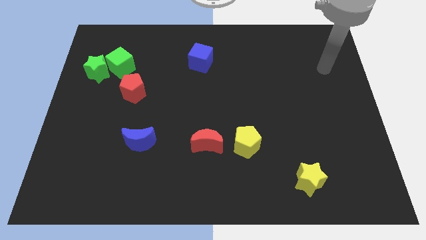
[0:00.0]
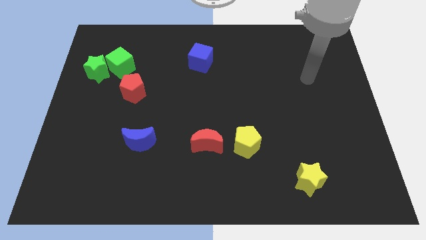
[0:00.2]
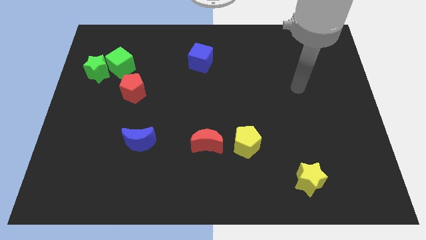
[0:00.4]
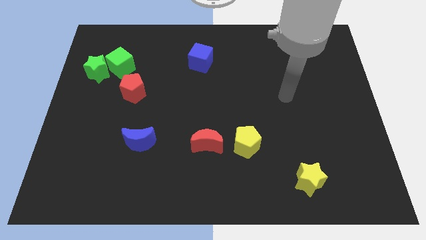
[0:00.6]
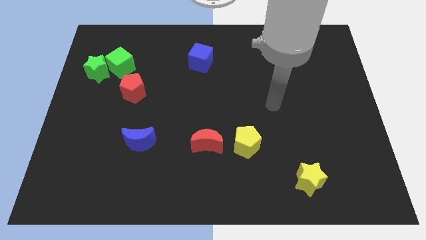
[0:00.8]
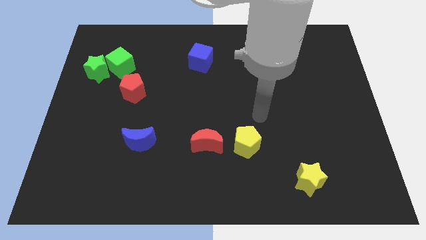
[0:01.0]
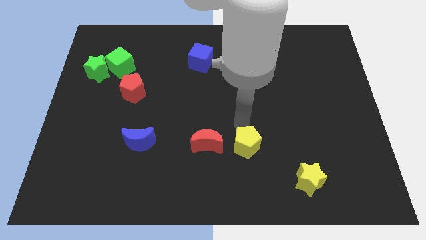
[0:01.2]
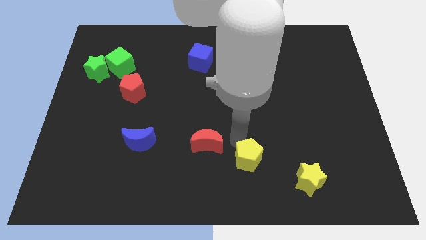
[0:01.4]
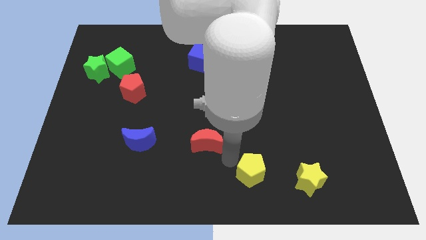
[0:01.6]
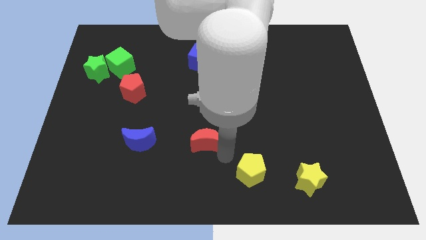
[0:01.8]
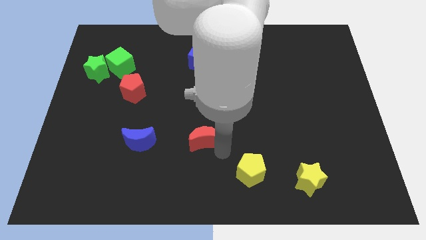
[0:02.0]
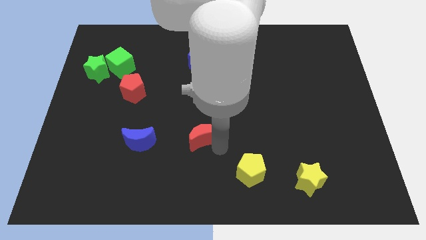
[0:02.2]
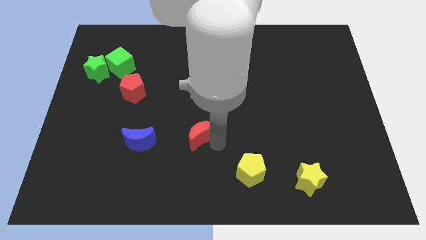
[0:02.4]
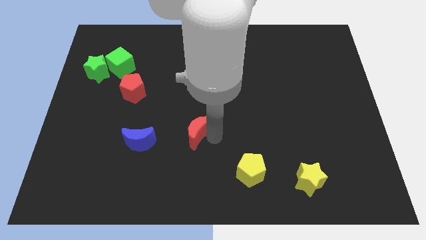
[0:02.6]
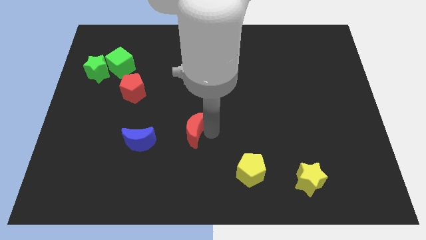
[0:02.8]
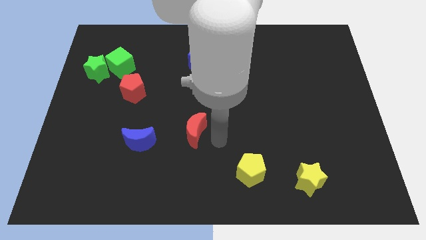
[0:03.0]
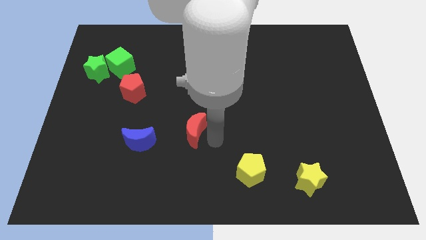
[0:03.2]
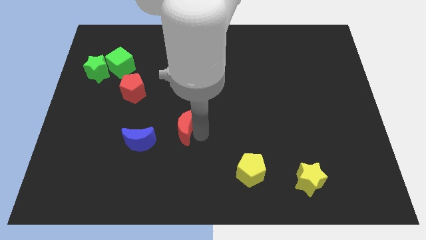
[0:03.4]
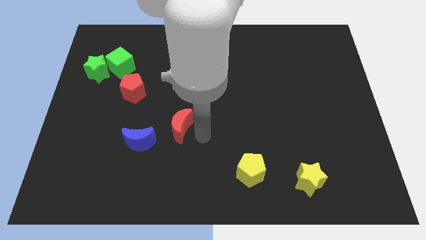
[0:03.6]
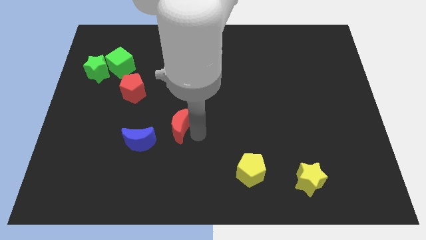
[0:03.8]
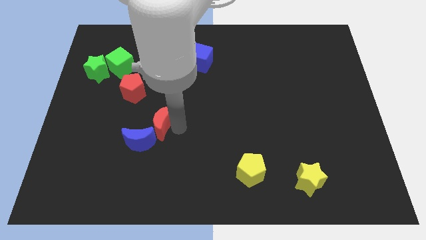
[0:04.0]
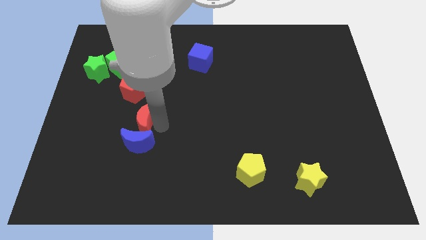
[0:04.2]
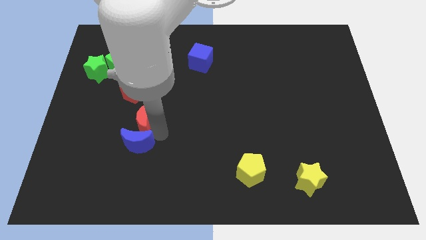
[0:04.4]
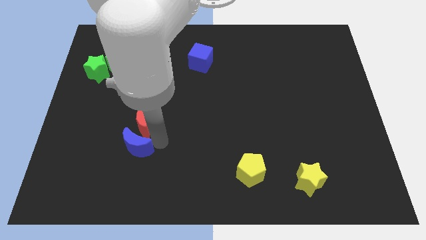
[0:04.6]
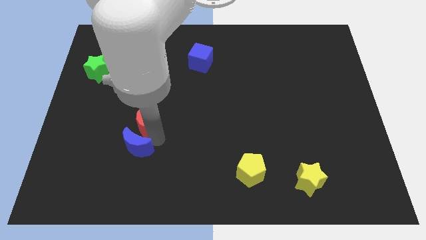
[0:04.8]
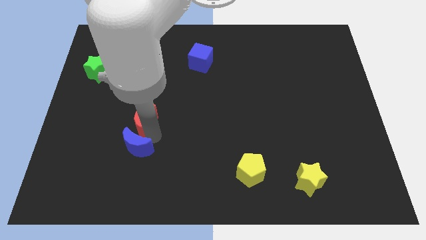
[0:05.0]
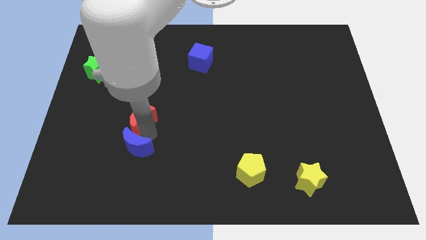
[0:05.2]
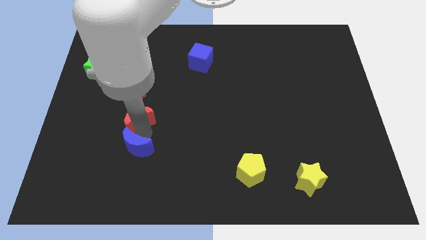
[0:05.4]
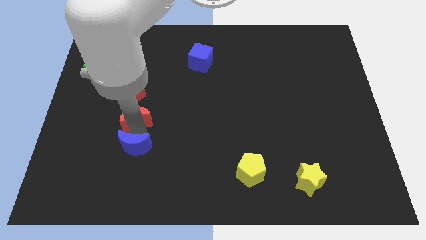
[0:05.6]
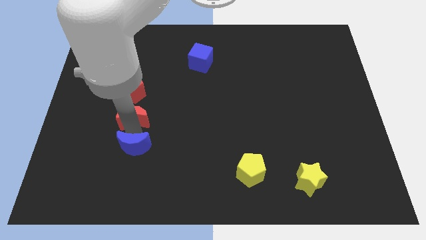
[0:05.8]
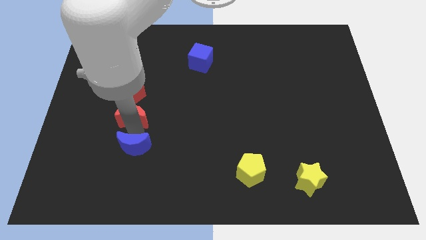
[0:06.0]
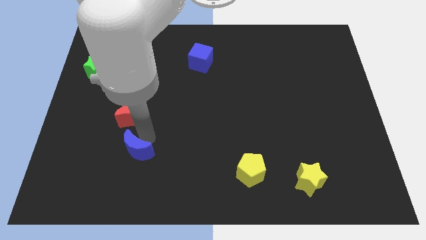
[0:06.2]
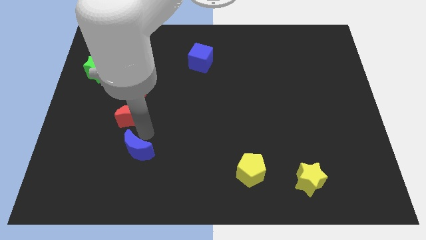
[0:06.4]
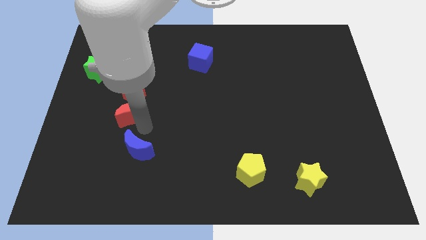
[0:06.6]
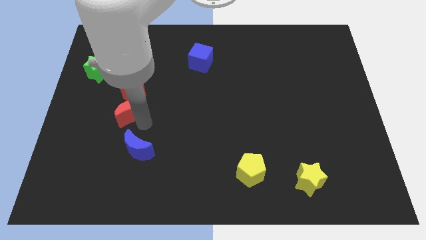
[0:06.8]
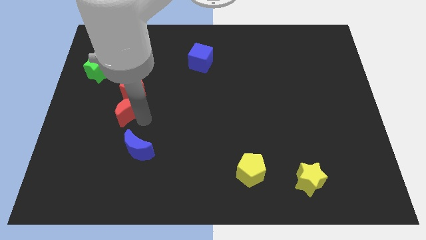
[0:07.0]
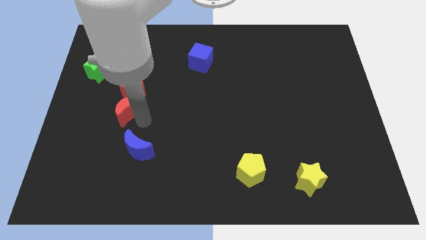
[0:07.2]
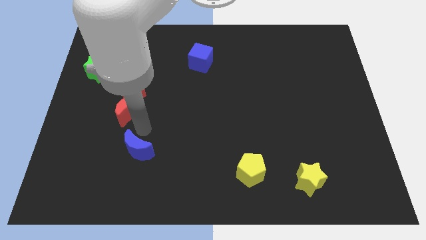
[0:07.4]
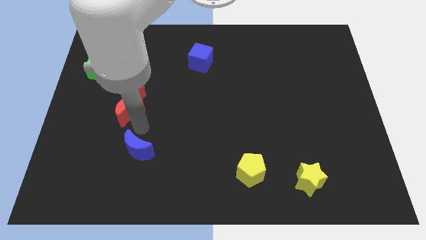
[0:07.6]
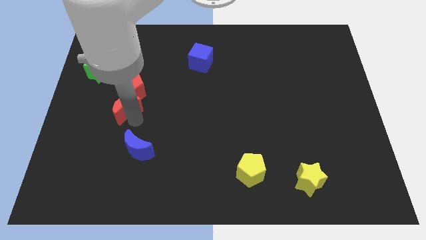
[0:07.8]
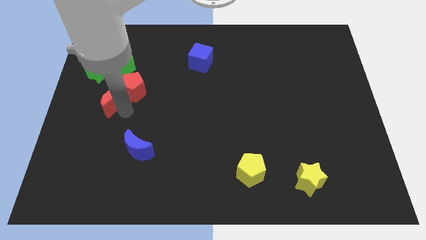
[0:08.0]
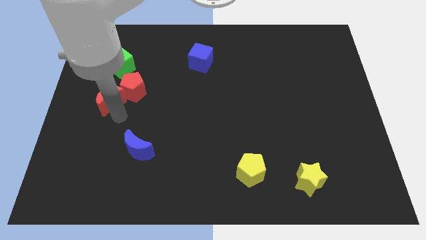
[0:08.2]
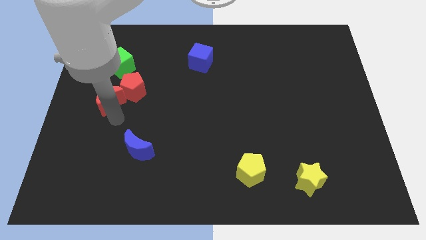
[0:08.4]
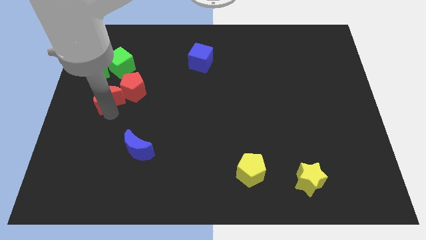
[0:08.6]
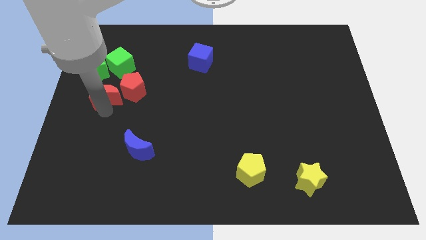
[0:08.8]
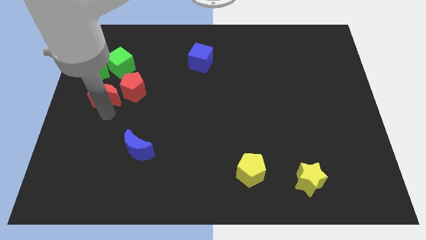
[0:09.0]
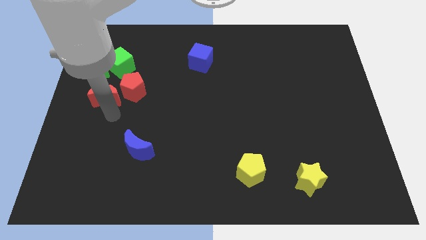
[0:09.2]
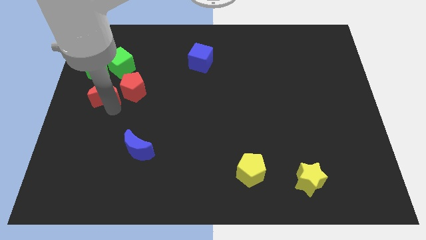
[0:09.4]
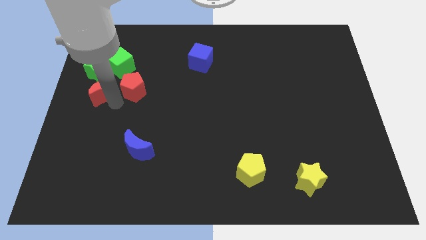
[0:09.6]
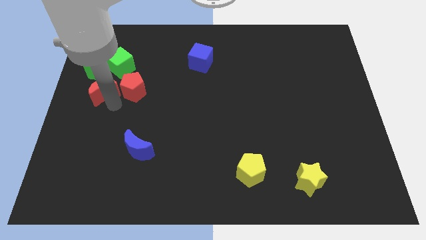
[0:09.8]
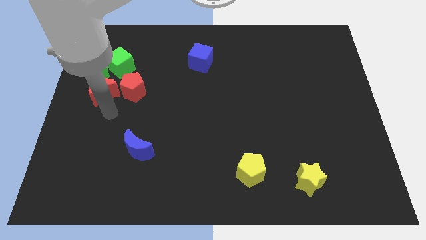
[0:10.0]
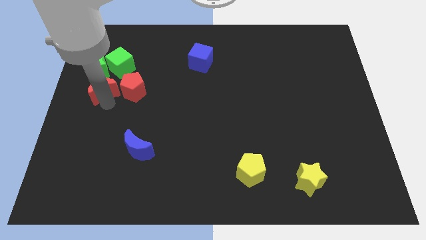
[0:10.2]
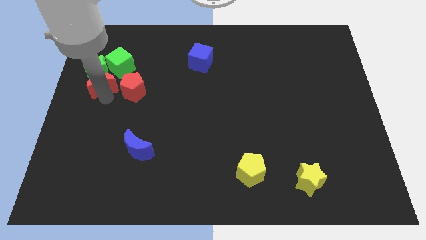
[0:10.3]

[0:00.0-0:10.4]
slide the red moon to the green star

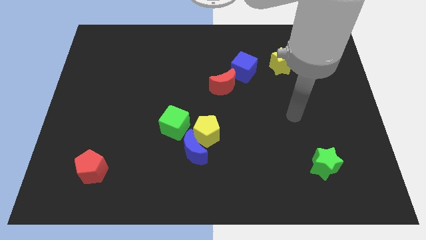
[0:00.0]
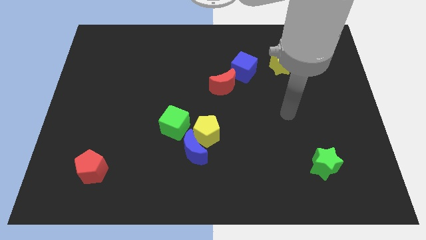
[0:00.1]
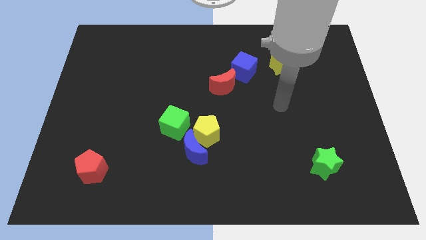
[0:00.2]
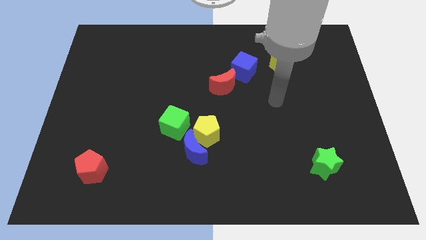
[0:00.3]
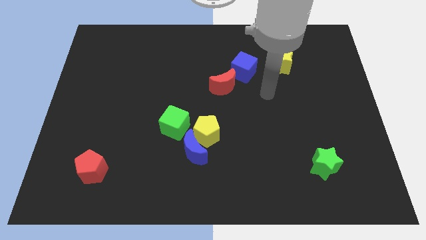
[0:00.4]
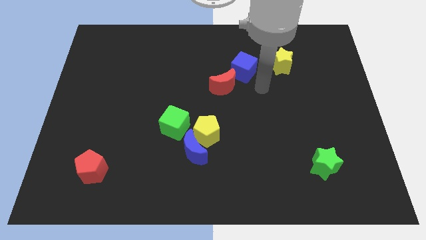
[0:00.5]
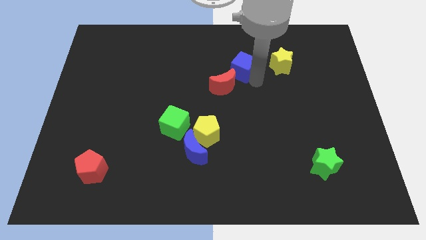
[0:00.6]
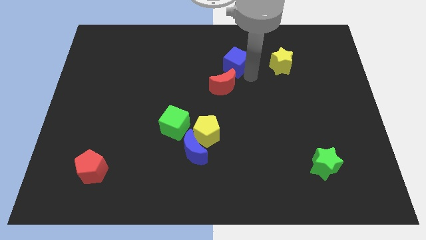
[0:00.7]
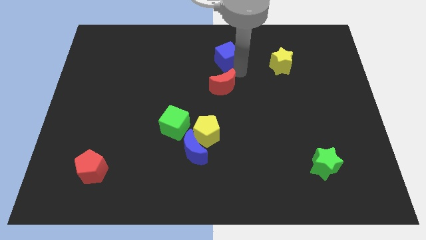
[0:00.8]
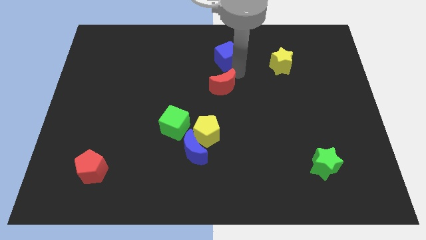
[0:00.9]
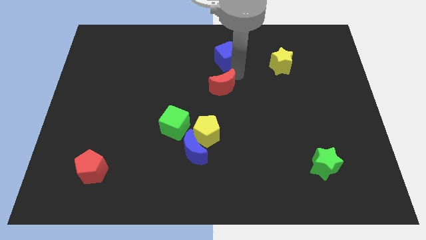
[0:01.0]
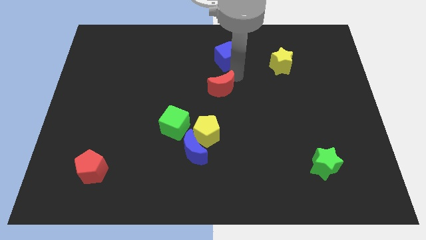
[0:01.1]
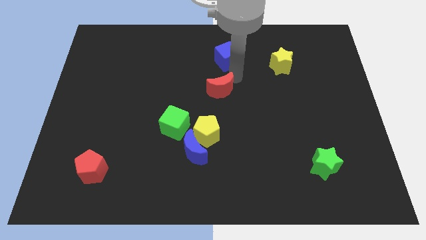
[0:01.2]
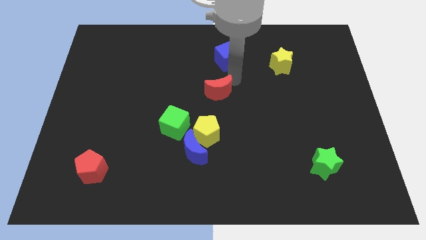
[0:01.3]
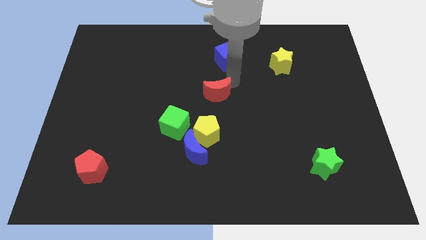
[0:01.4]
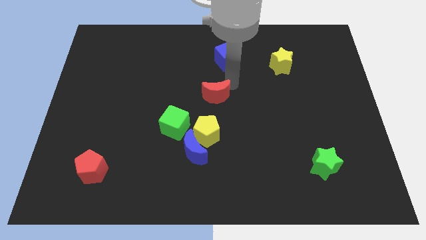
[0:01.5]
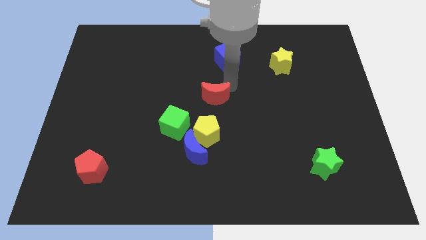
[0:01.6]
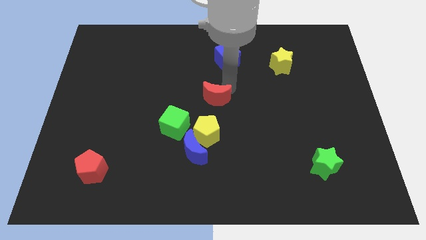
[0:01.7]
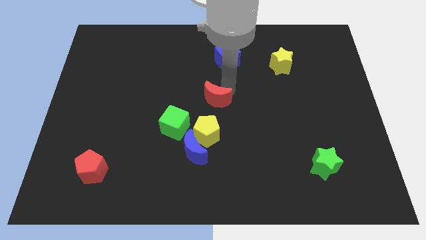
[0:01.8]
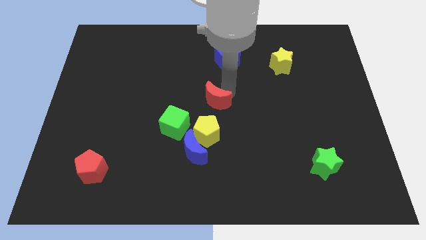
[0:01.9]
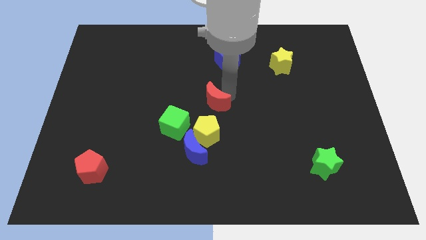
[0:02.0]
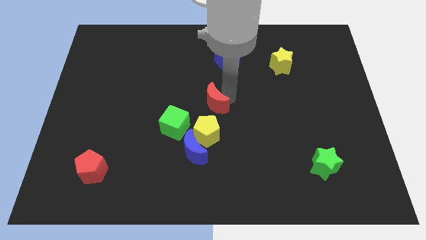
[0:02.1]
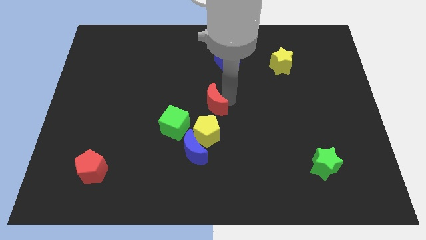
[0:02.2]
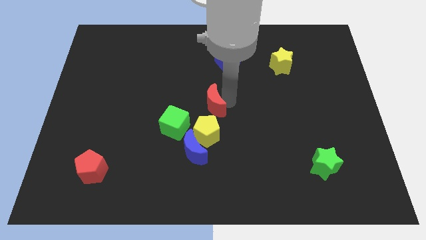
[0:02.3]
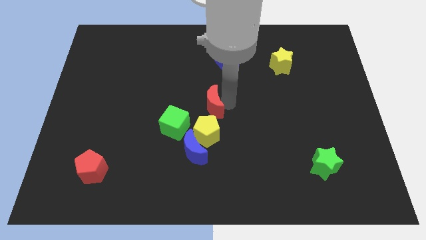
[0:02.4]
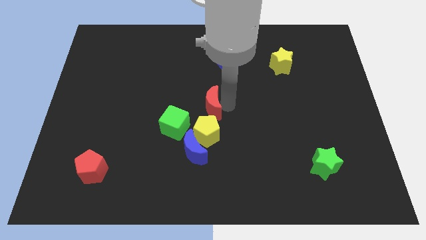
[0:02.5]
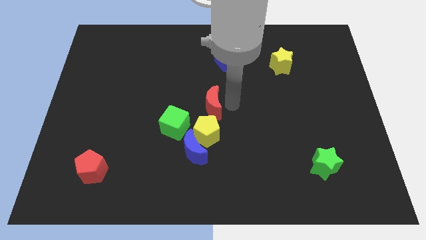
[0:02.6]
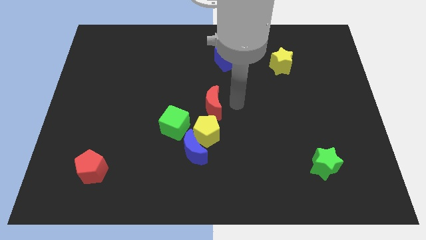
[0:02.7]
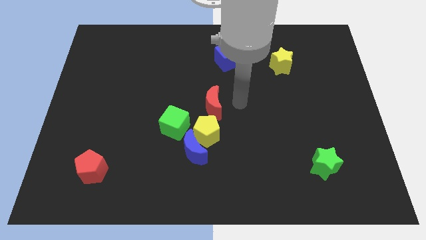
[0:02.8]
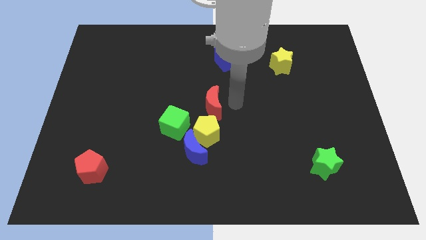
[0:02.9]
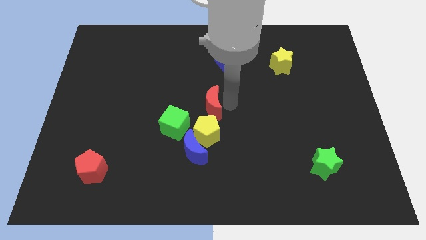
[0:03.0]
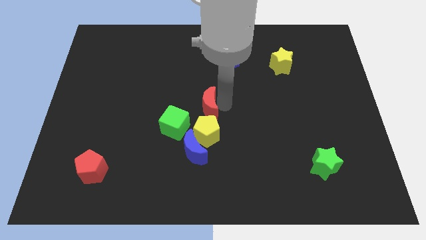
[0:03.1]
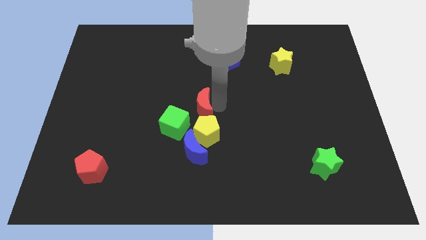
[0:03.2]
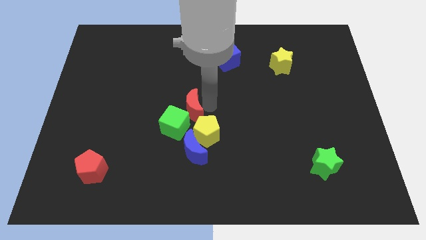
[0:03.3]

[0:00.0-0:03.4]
push the red moon to the green cube
